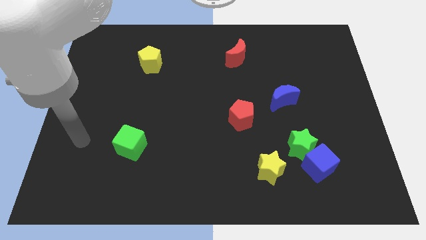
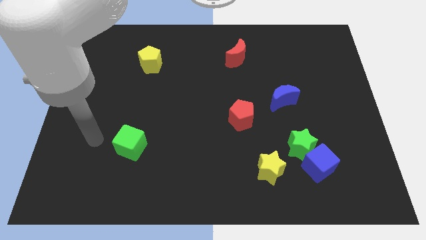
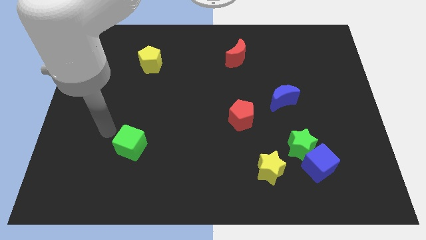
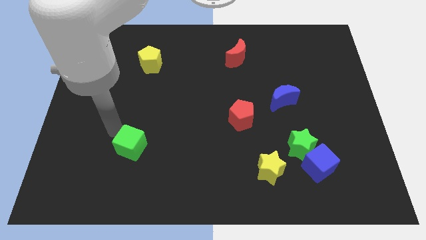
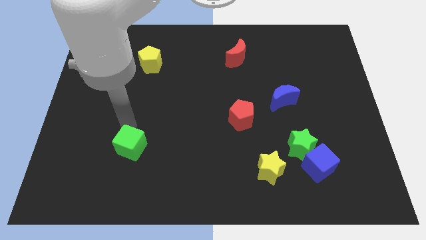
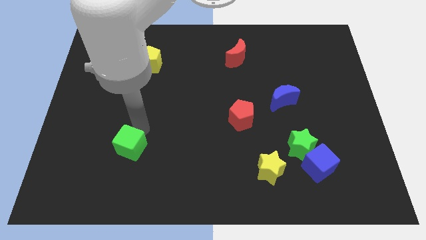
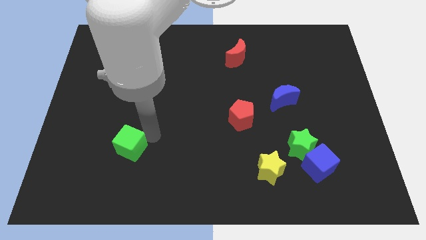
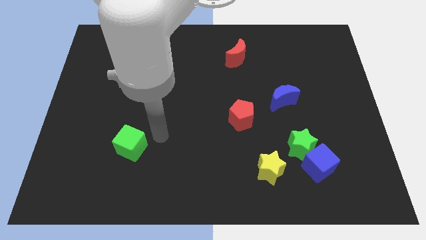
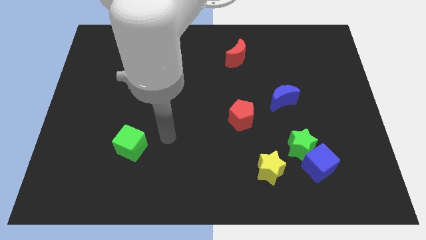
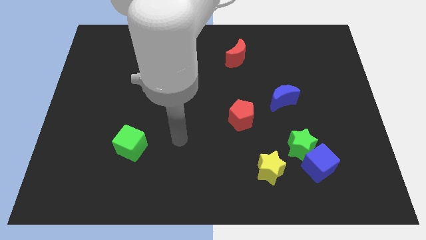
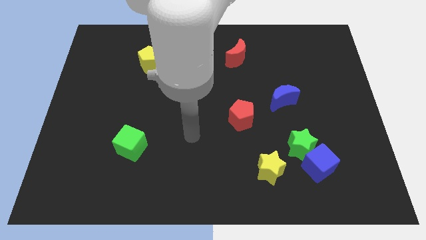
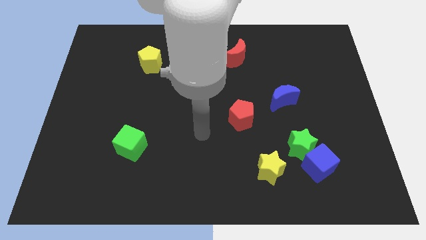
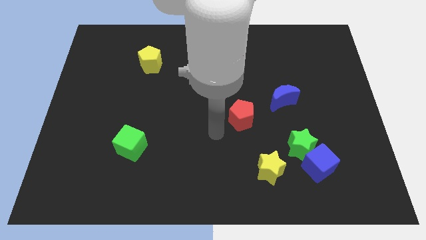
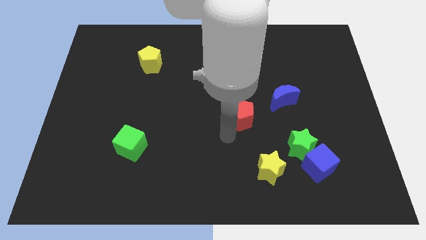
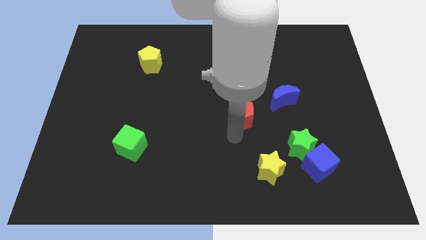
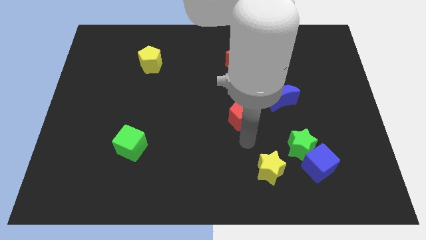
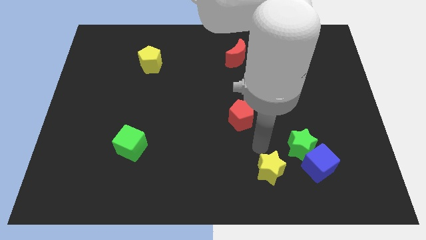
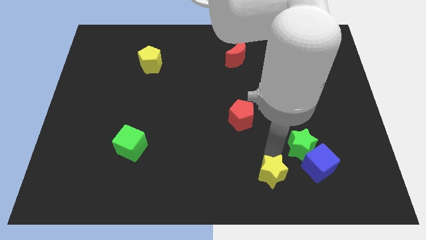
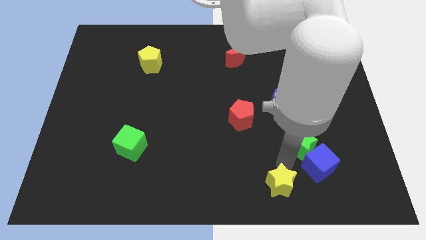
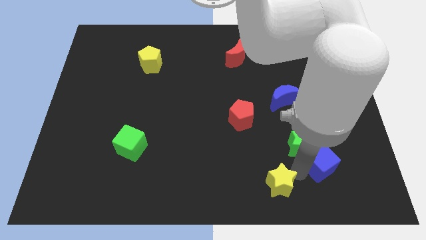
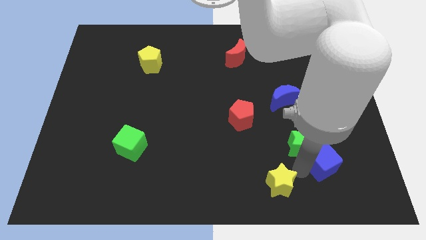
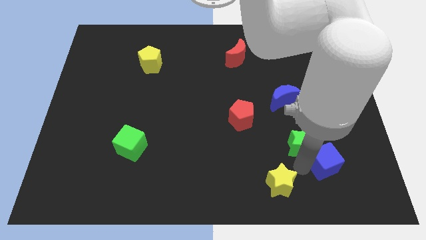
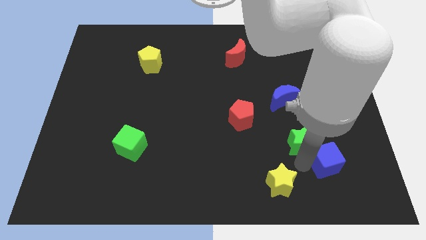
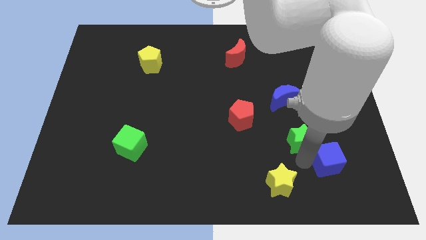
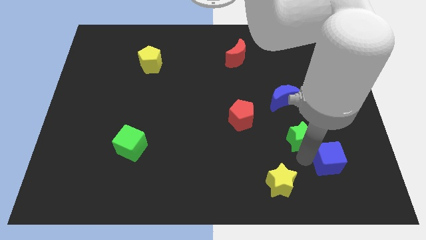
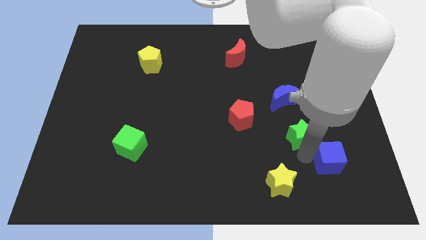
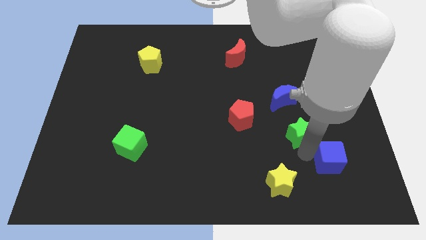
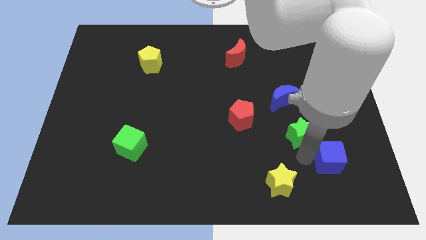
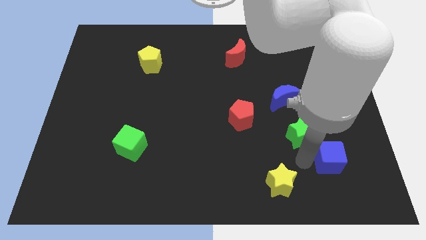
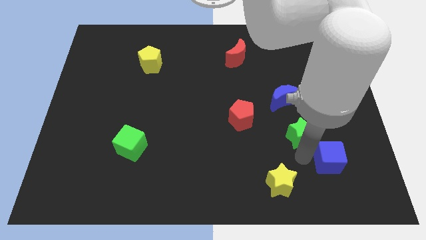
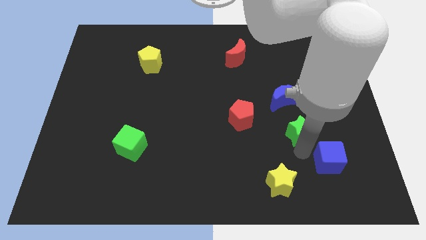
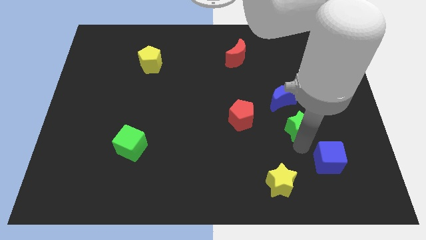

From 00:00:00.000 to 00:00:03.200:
separate the green star from the blue cube and yellow star

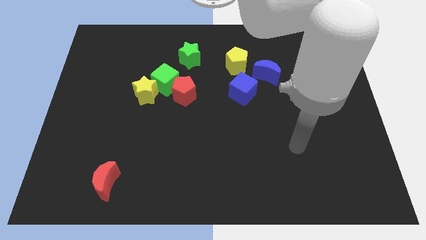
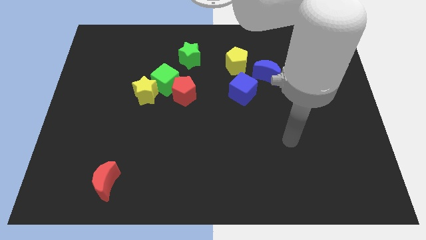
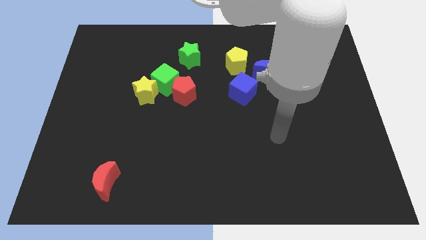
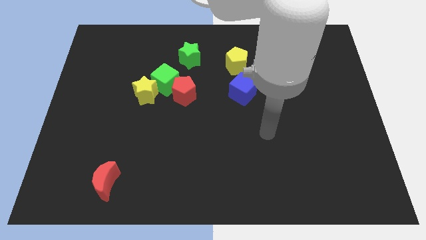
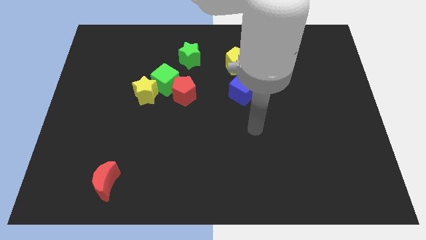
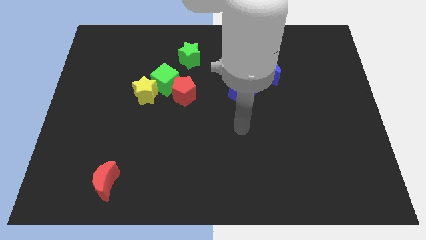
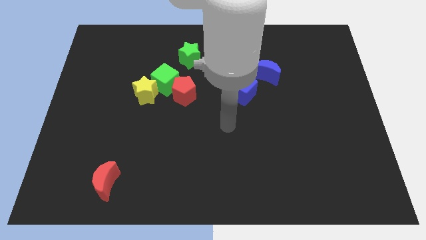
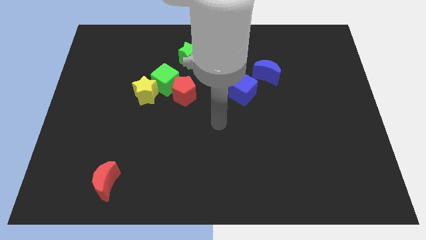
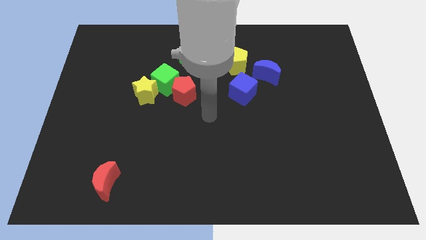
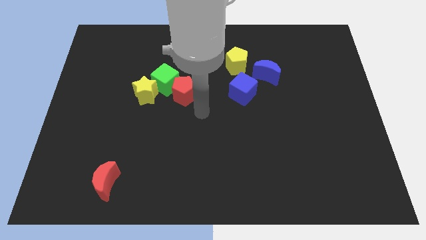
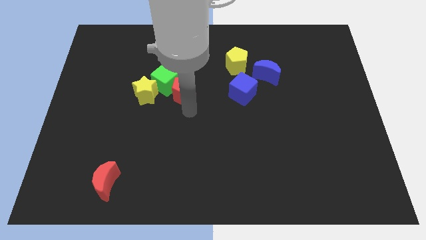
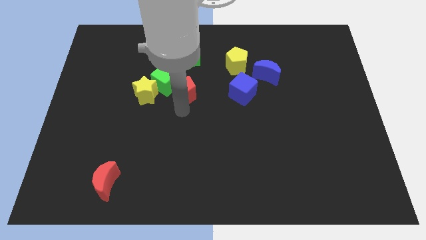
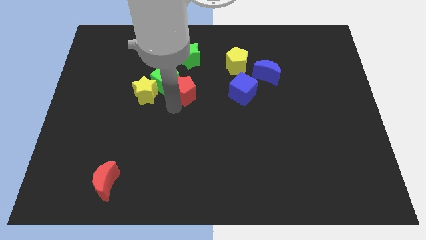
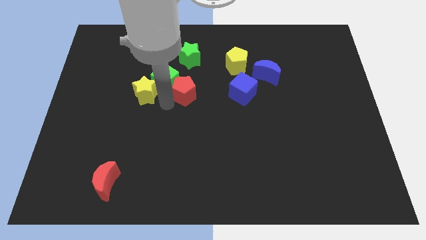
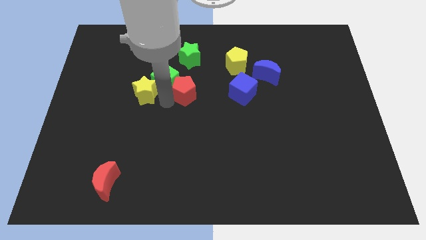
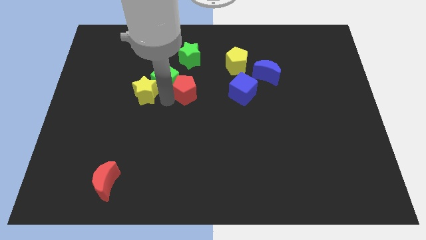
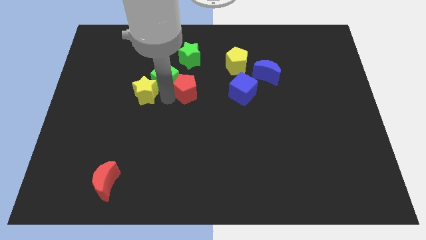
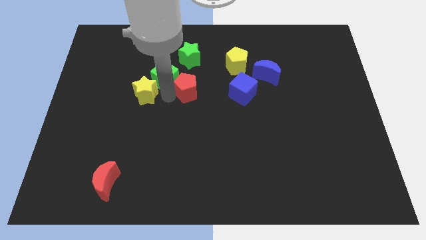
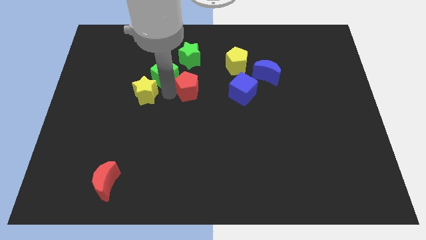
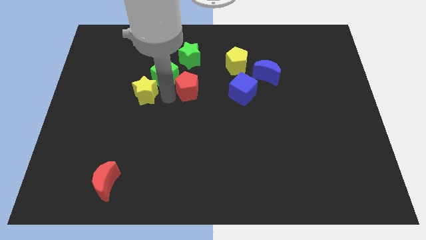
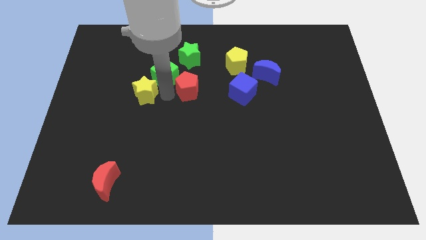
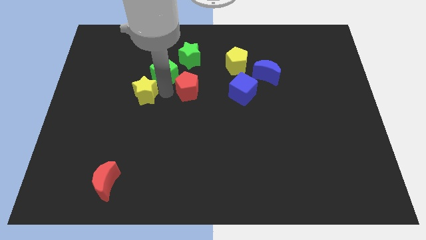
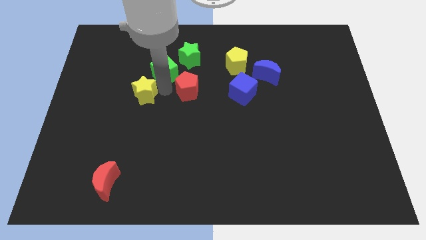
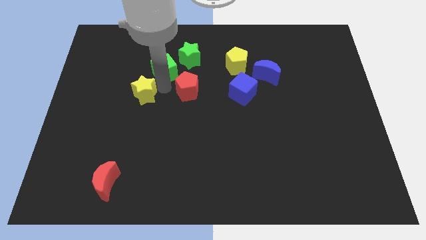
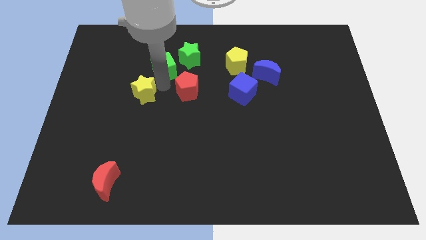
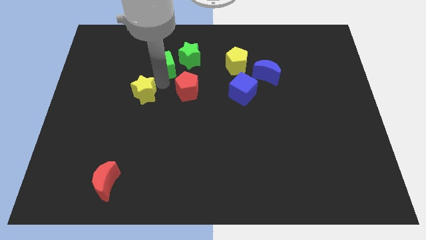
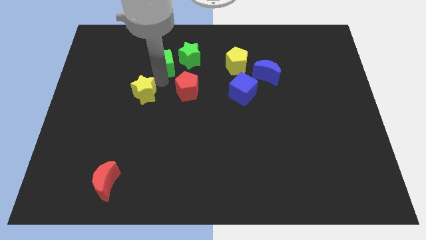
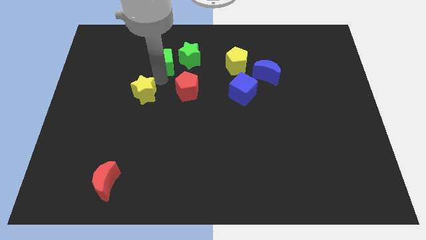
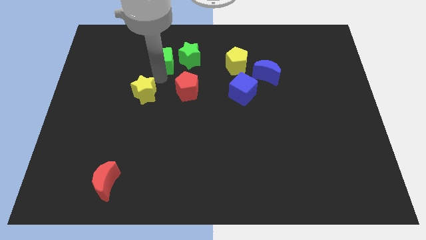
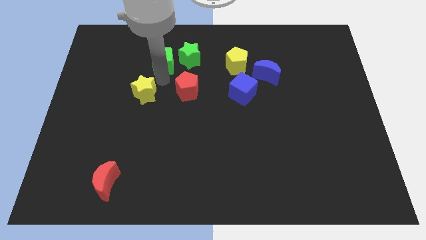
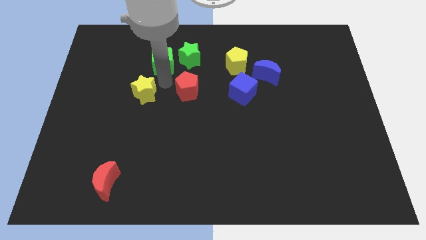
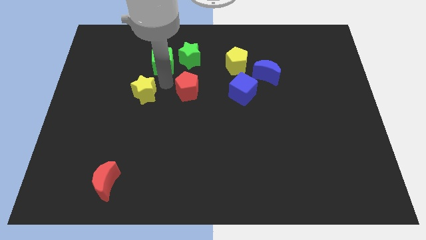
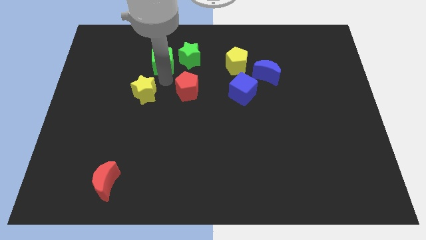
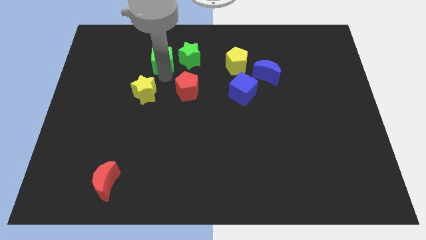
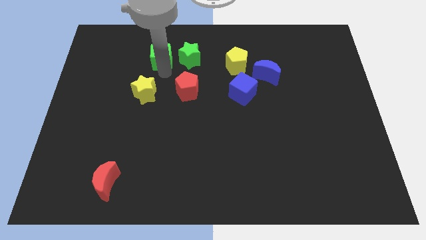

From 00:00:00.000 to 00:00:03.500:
move the green cube away from the yellow star and red pentagon

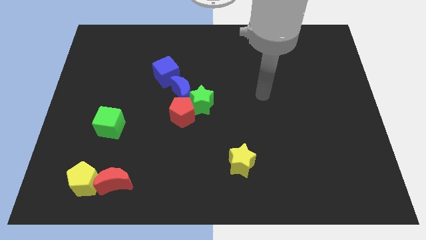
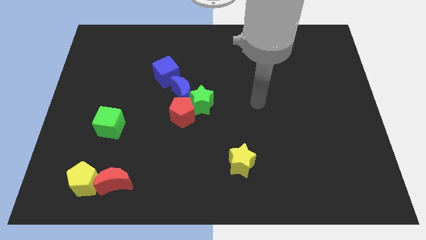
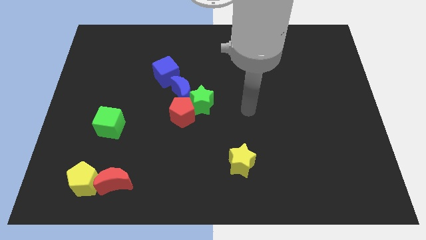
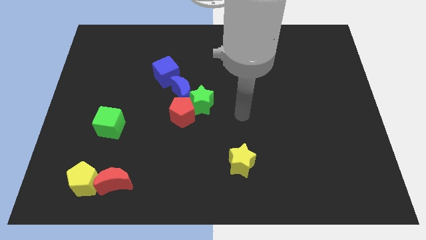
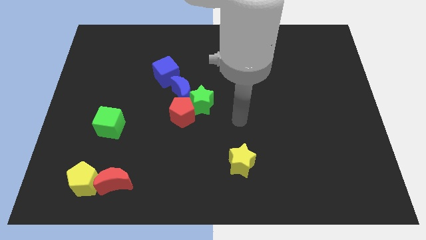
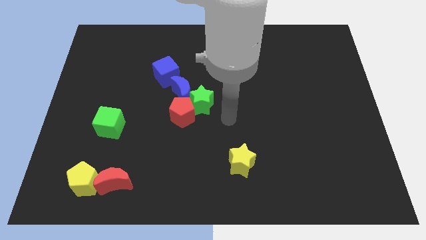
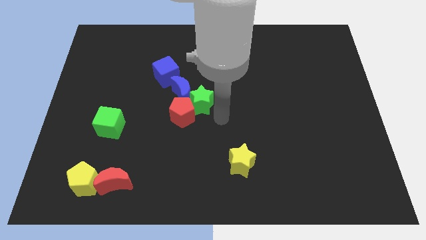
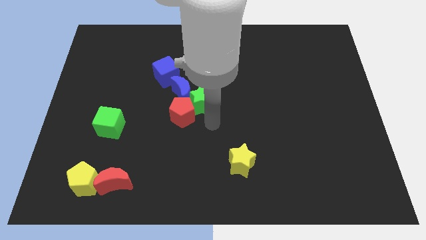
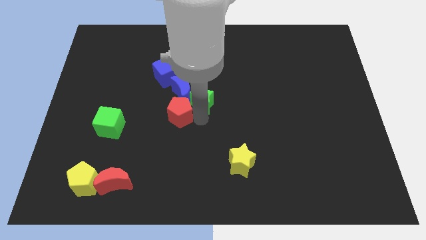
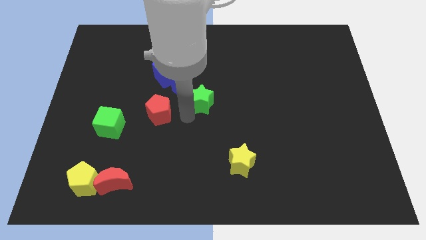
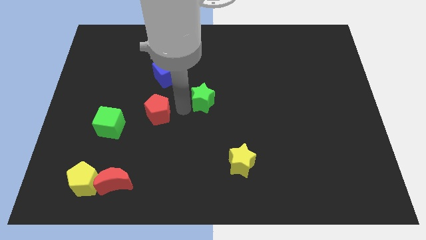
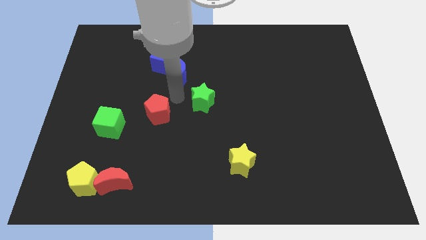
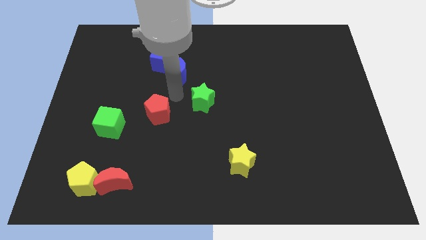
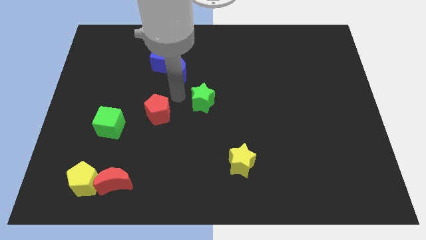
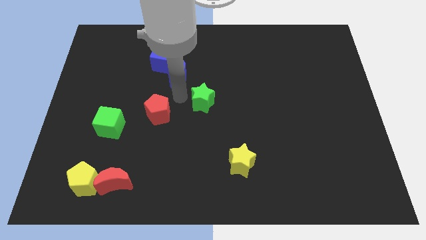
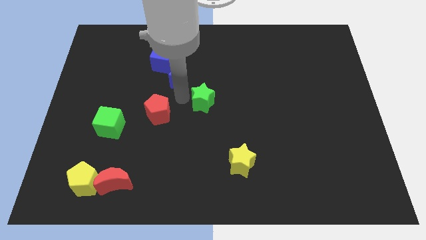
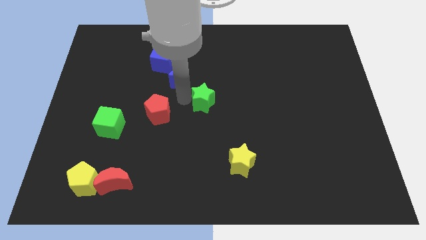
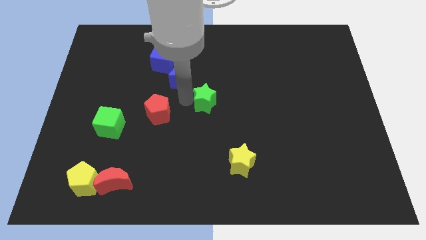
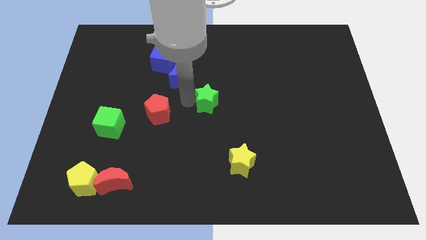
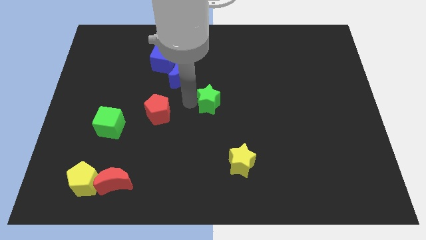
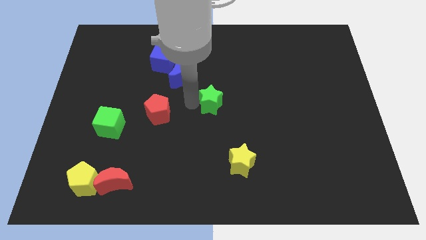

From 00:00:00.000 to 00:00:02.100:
pull the green star apart from the blue moon and red pentagon

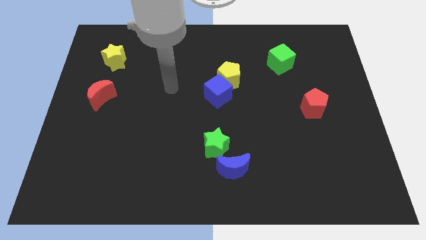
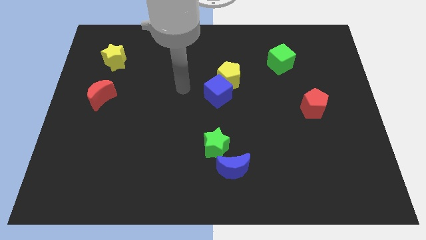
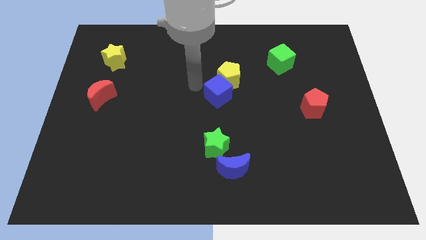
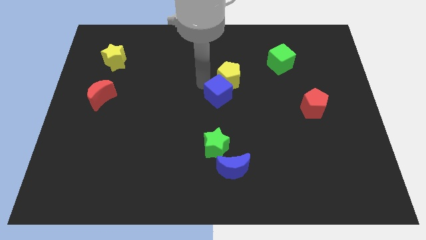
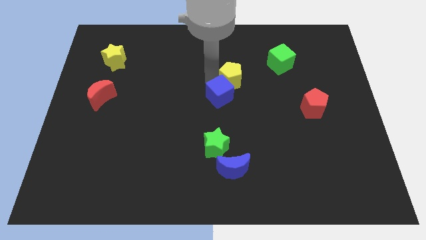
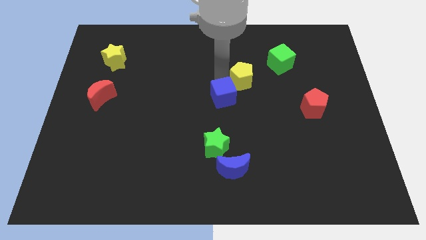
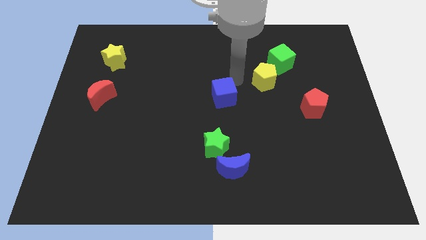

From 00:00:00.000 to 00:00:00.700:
move the blue cube away from the yellow pentagon
